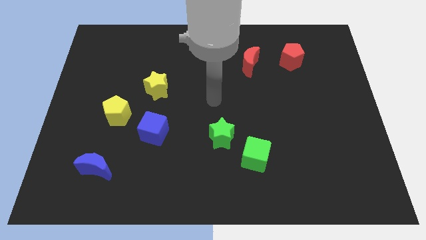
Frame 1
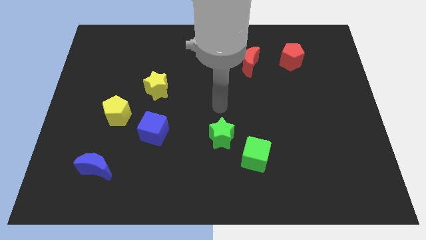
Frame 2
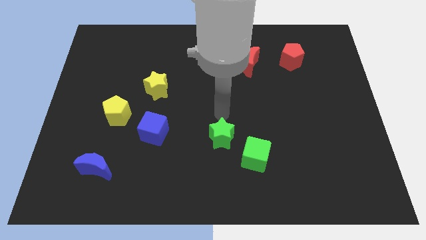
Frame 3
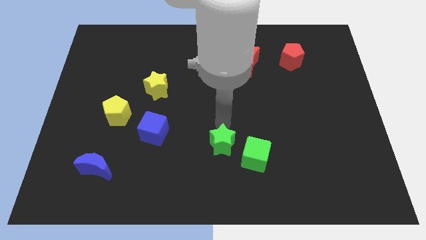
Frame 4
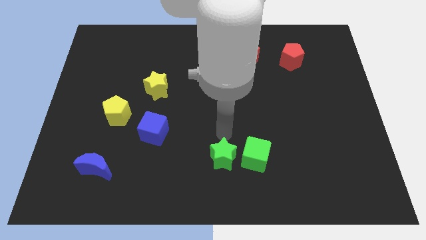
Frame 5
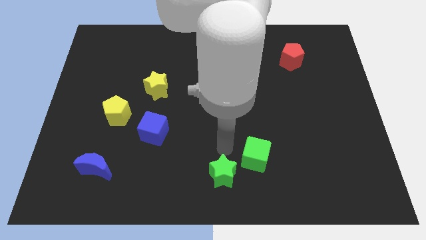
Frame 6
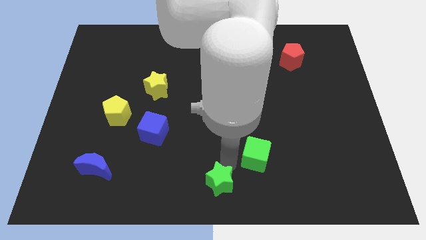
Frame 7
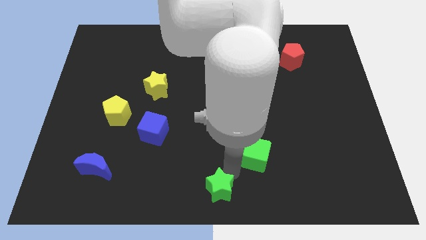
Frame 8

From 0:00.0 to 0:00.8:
pull the green cube apart from the green star

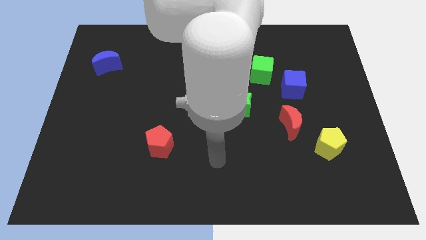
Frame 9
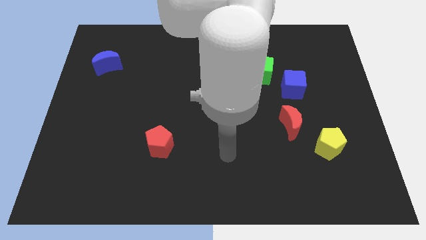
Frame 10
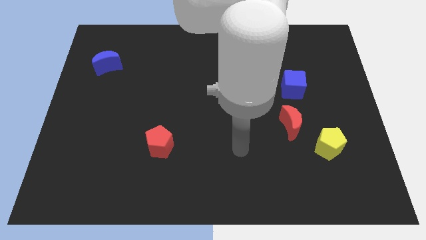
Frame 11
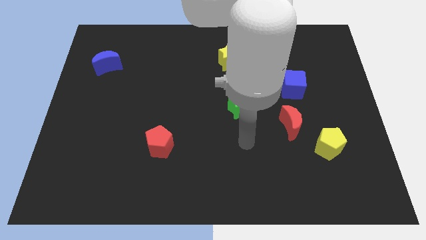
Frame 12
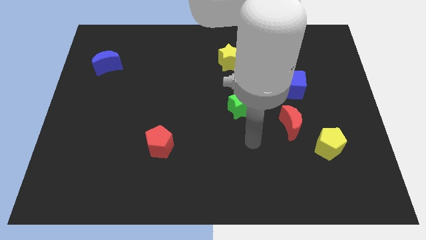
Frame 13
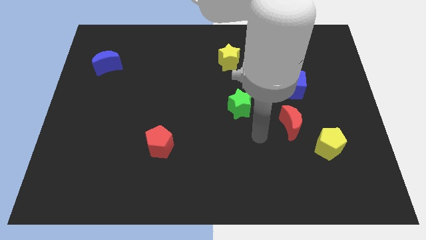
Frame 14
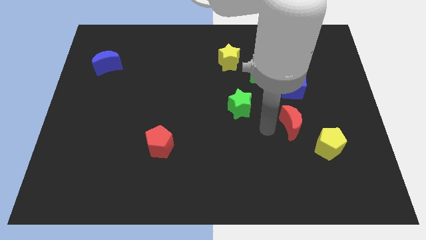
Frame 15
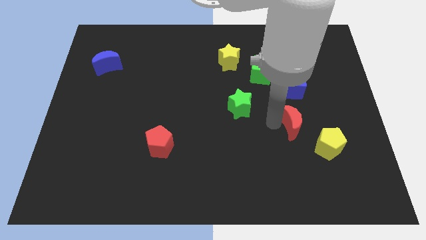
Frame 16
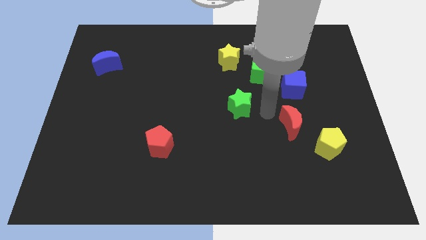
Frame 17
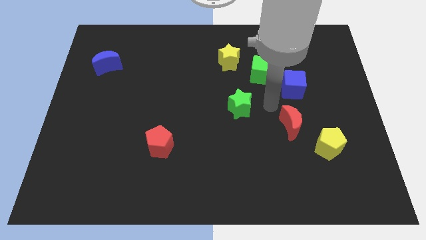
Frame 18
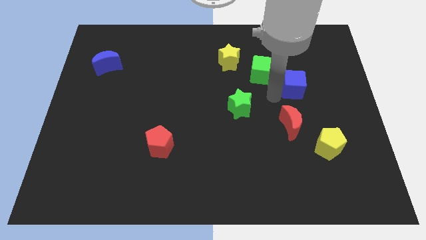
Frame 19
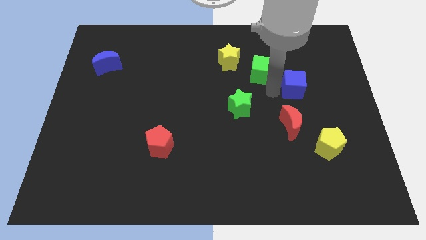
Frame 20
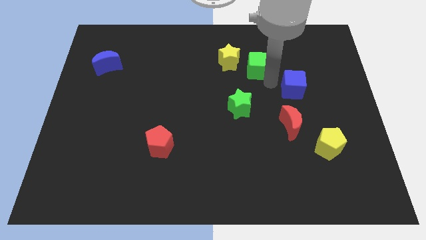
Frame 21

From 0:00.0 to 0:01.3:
move the blue cube away from the green cube

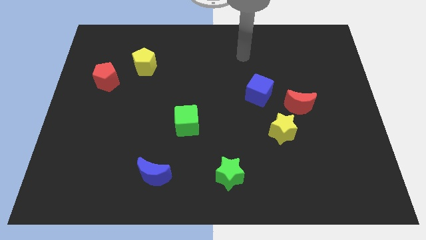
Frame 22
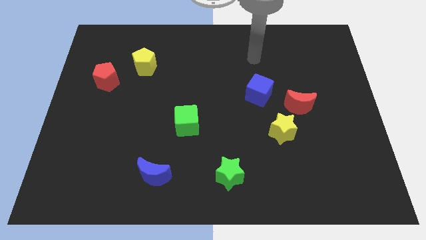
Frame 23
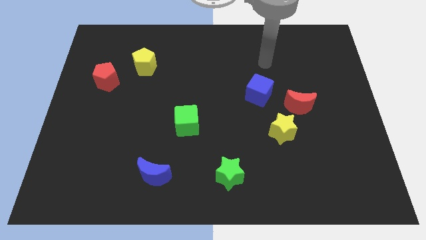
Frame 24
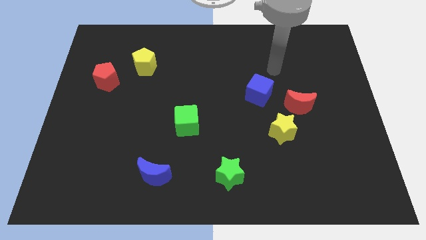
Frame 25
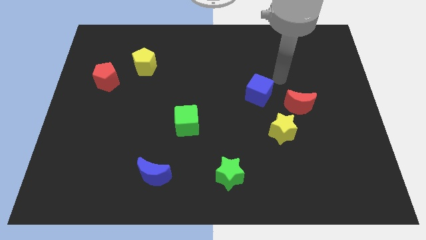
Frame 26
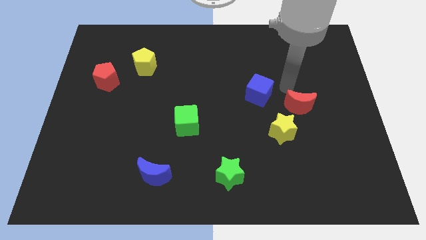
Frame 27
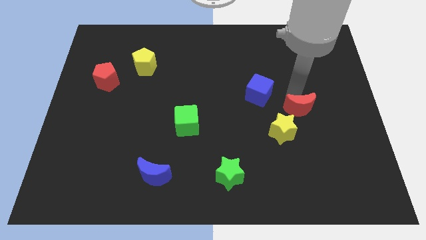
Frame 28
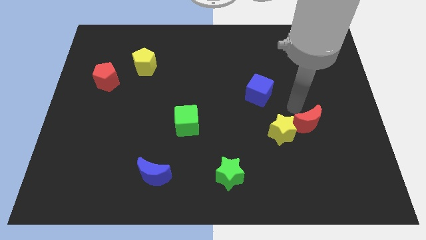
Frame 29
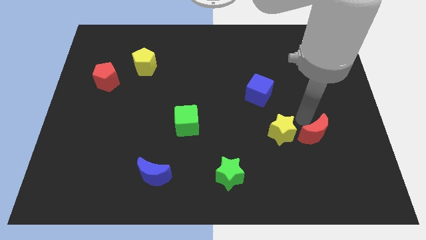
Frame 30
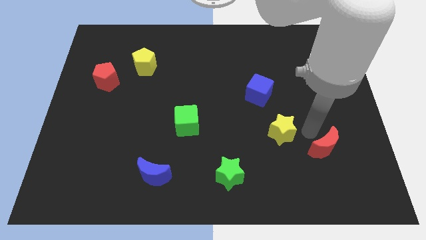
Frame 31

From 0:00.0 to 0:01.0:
move the yellow star away from the red moon

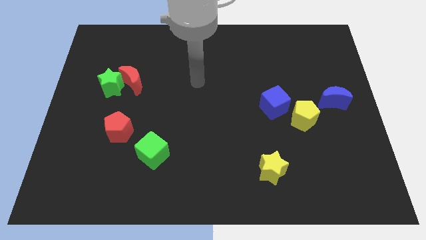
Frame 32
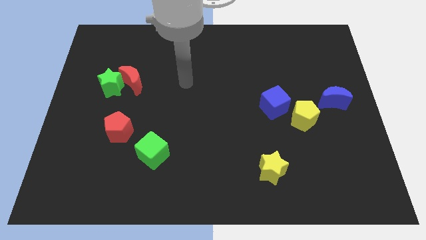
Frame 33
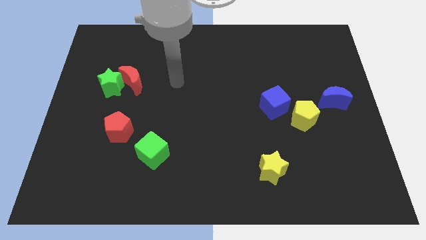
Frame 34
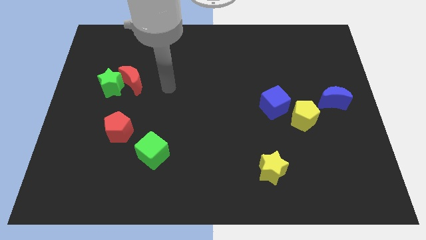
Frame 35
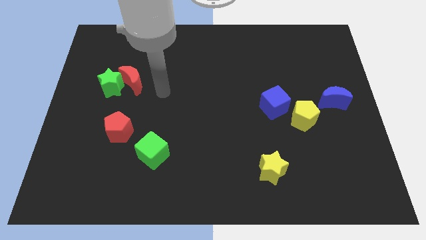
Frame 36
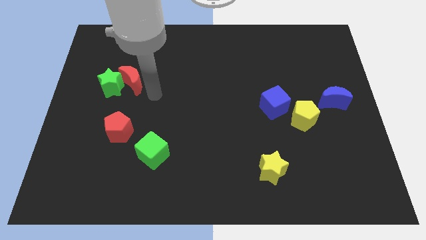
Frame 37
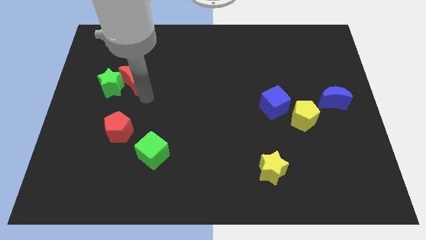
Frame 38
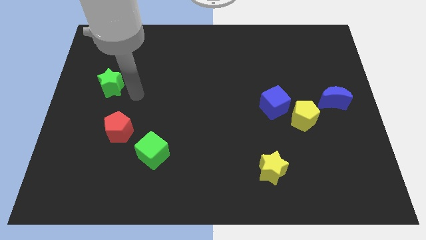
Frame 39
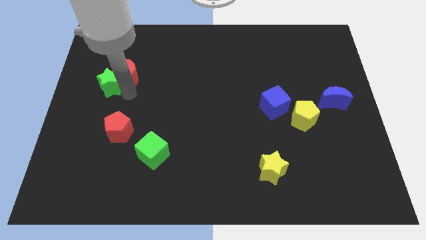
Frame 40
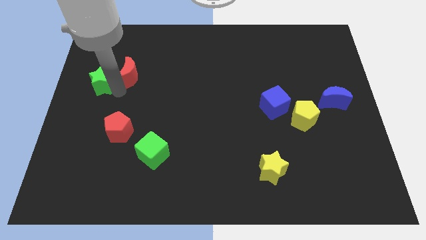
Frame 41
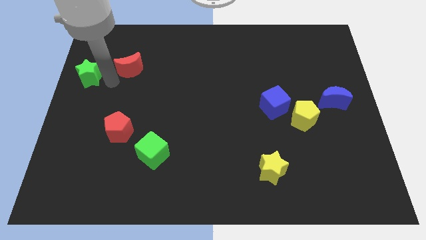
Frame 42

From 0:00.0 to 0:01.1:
pull the red moon apart from the green star

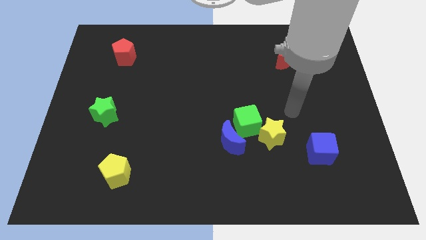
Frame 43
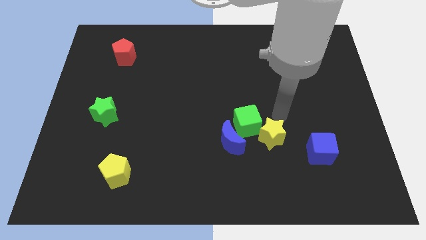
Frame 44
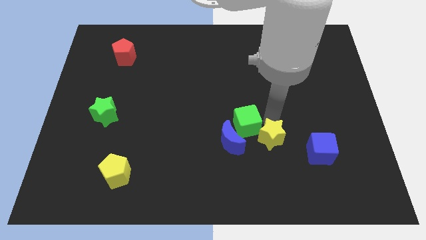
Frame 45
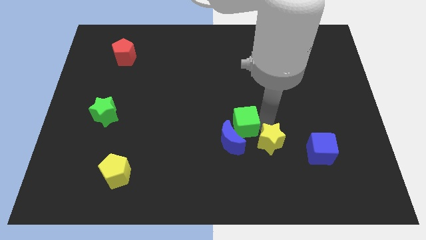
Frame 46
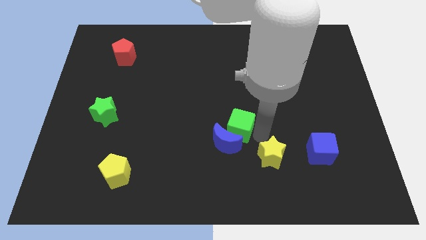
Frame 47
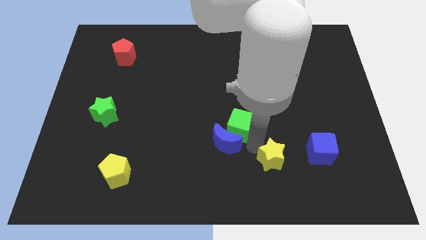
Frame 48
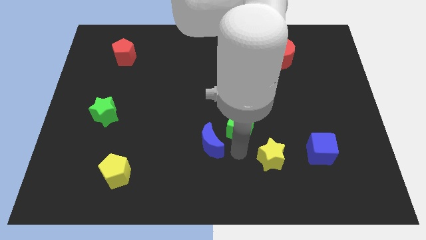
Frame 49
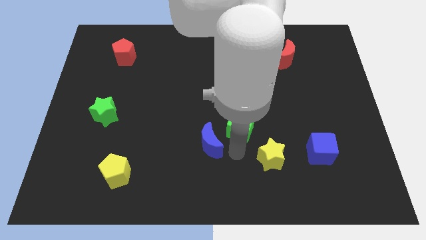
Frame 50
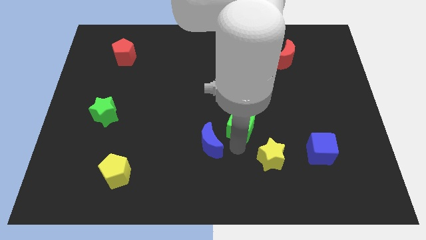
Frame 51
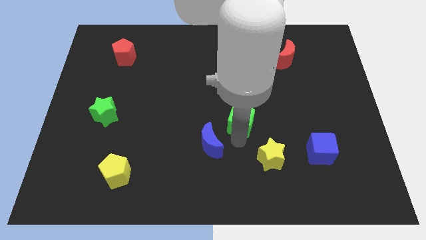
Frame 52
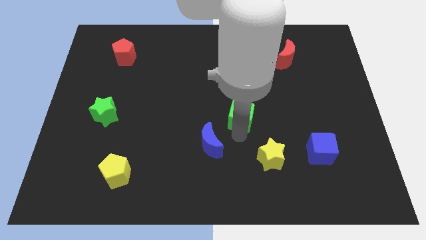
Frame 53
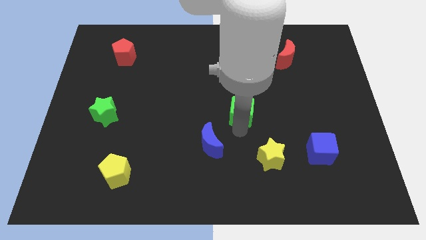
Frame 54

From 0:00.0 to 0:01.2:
separate the green cube from the blue moon and yellow star

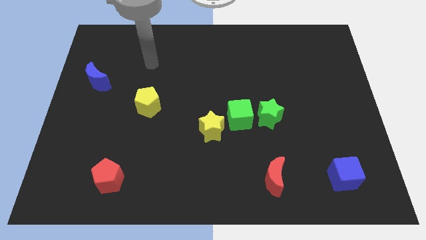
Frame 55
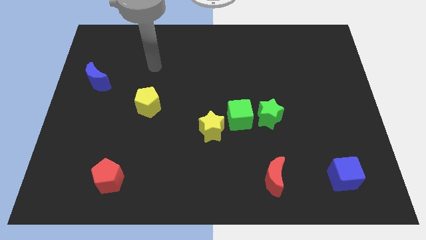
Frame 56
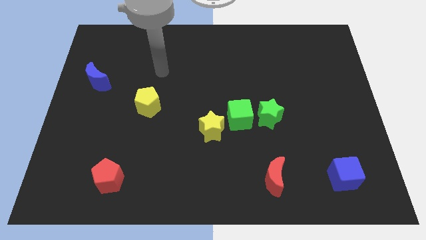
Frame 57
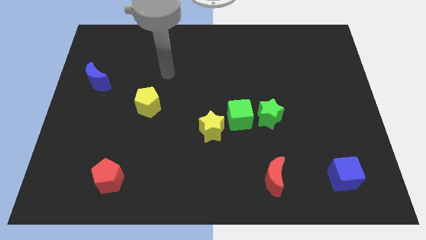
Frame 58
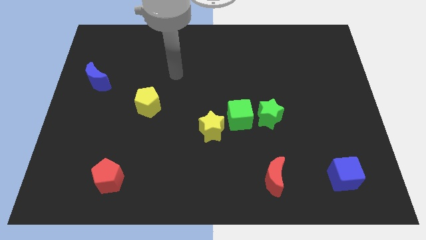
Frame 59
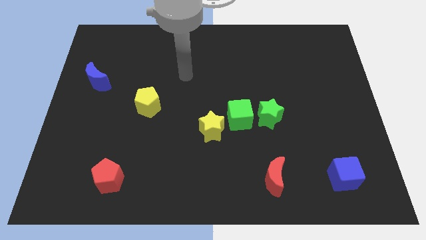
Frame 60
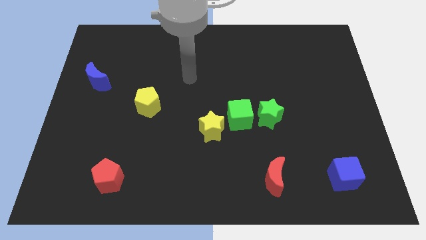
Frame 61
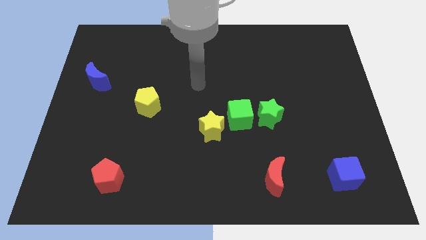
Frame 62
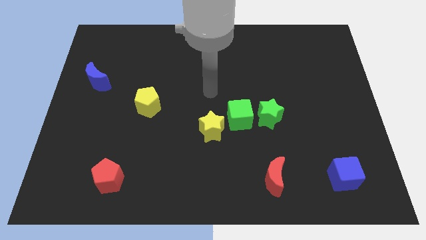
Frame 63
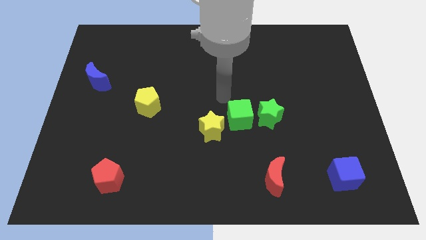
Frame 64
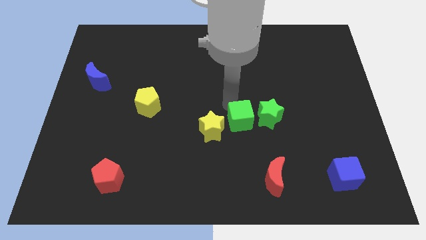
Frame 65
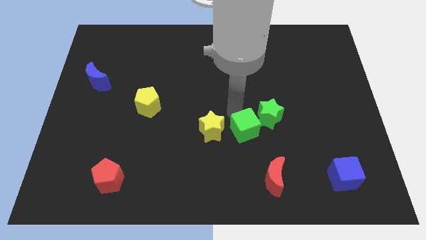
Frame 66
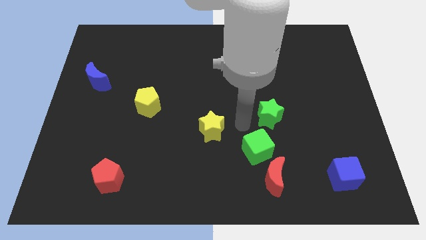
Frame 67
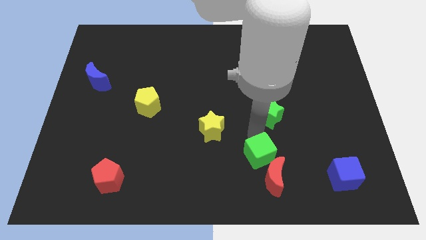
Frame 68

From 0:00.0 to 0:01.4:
pull the green star apart from the green cube

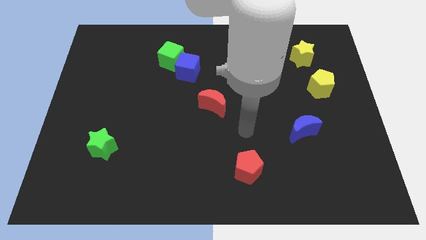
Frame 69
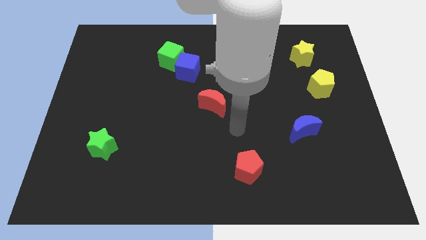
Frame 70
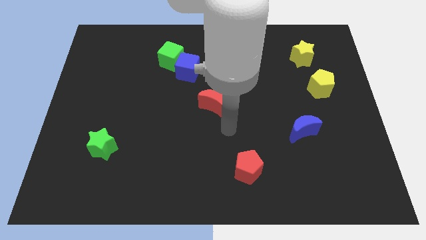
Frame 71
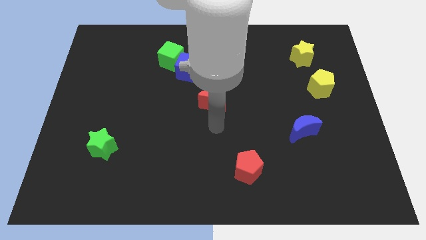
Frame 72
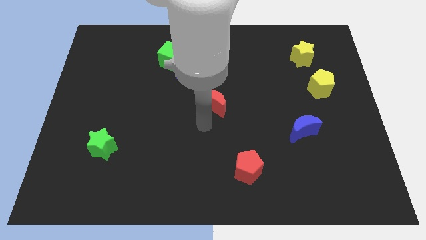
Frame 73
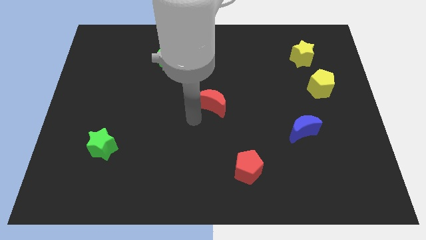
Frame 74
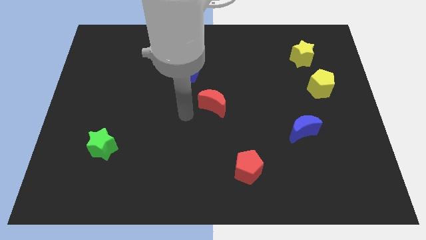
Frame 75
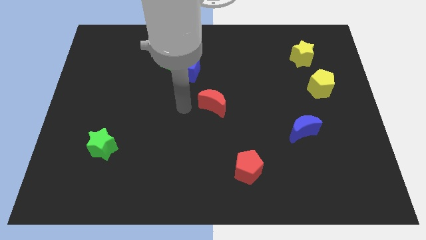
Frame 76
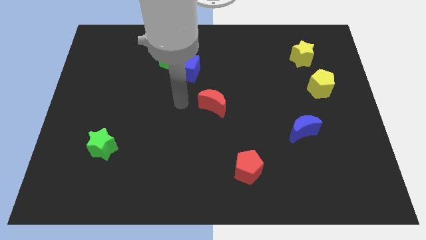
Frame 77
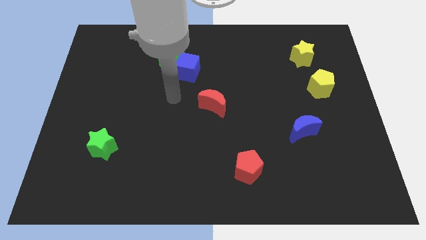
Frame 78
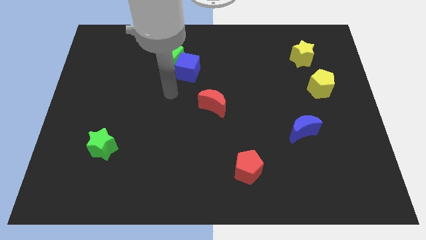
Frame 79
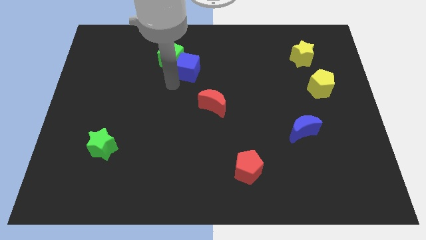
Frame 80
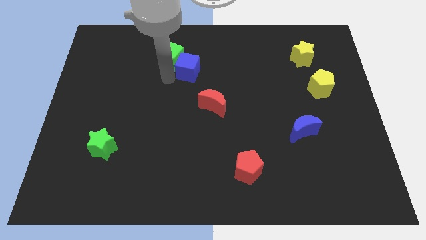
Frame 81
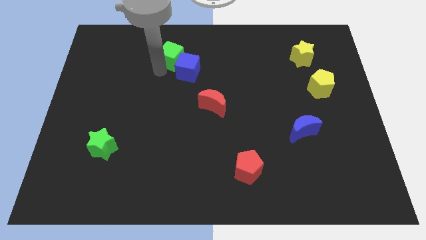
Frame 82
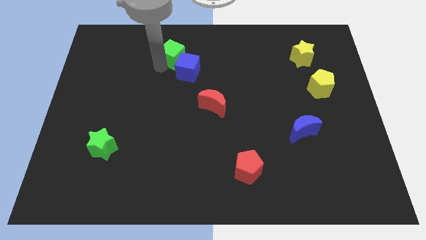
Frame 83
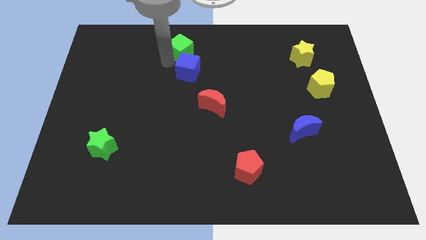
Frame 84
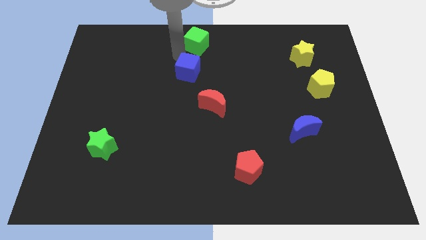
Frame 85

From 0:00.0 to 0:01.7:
pull the blue cube apart from the green cube

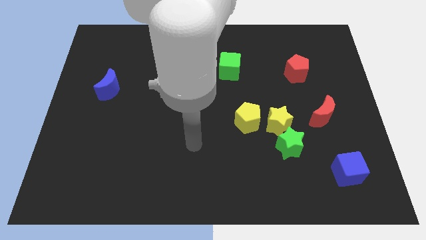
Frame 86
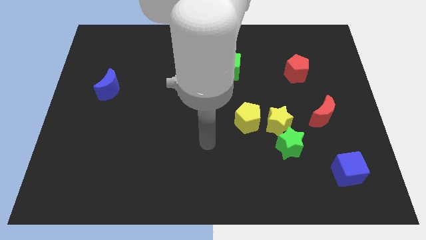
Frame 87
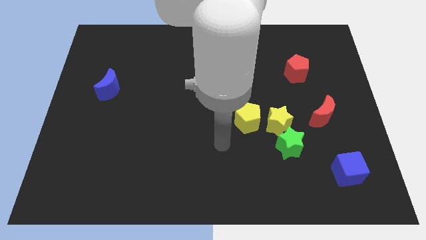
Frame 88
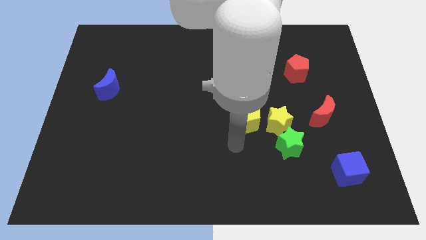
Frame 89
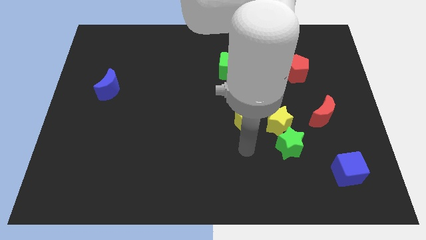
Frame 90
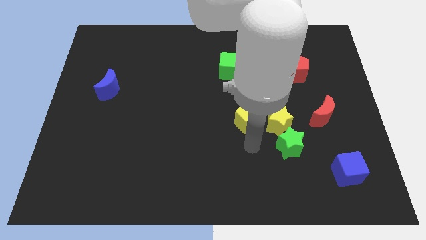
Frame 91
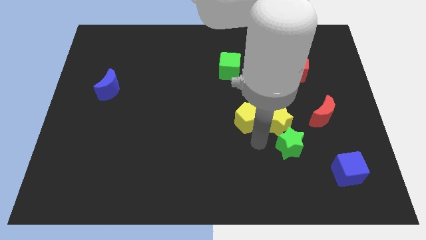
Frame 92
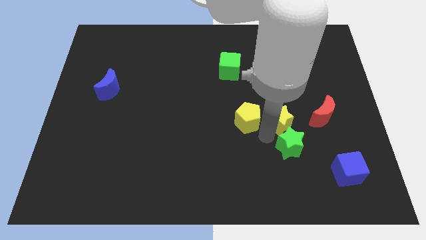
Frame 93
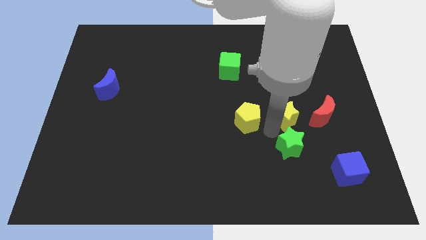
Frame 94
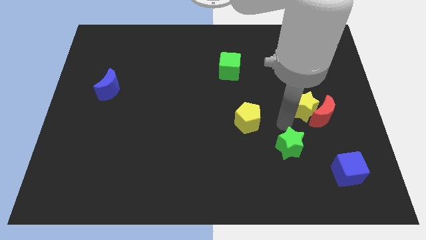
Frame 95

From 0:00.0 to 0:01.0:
pull the green star apart from the yellow star

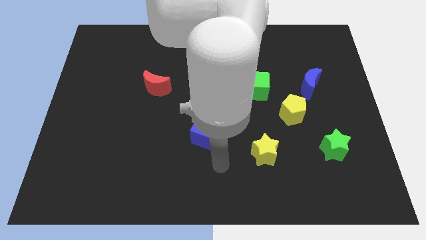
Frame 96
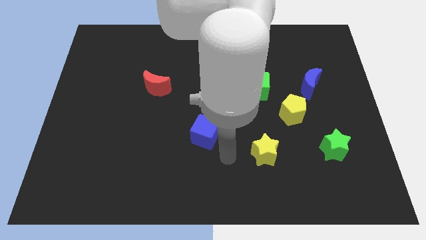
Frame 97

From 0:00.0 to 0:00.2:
pull the blue moon apart from the yellow pentagon
